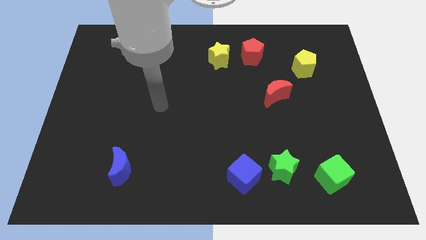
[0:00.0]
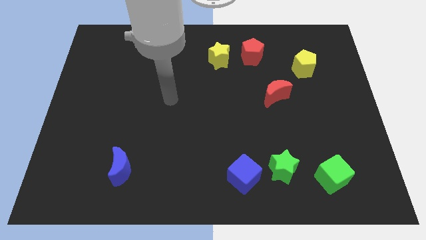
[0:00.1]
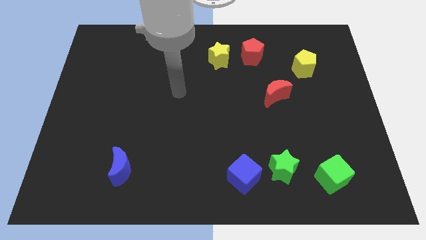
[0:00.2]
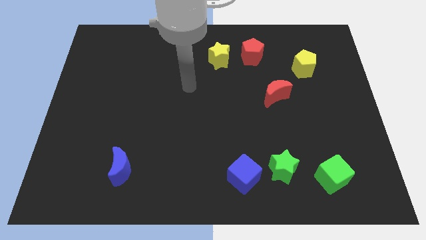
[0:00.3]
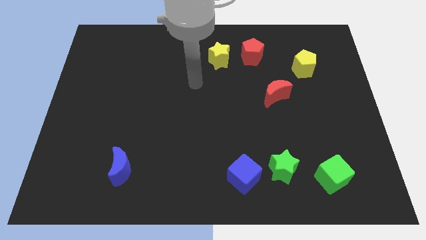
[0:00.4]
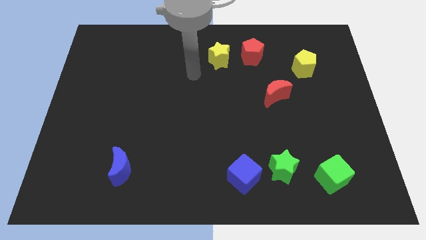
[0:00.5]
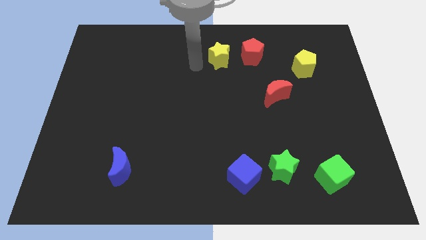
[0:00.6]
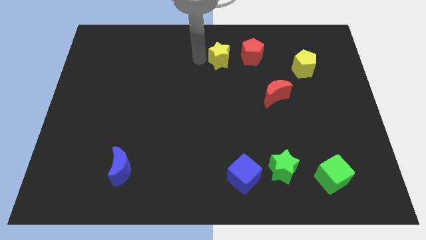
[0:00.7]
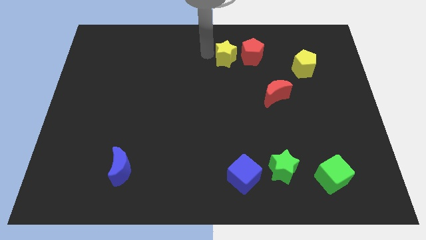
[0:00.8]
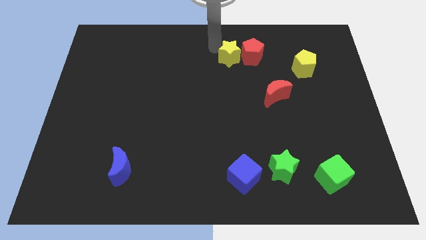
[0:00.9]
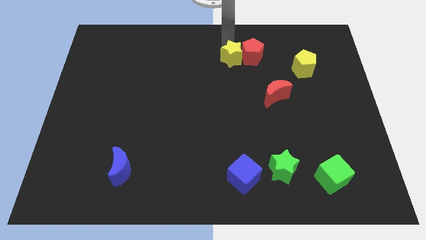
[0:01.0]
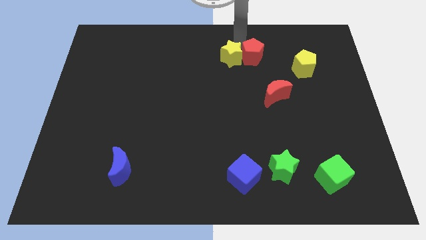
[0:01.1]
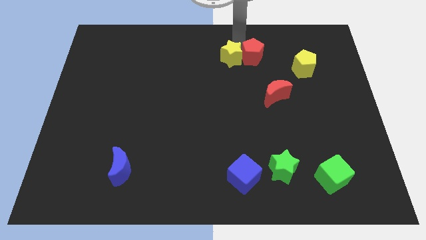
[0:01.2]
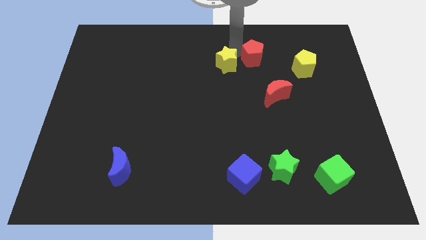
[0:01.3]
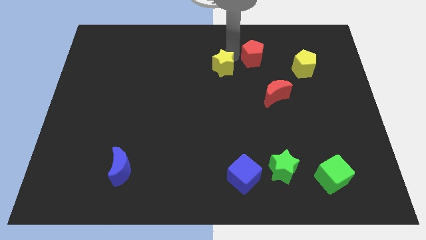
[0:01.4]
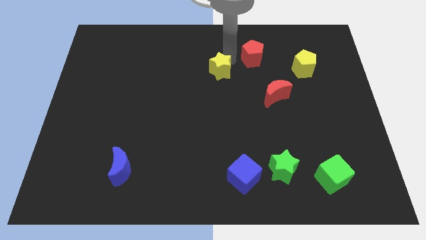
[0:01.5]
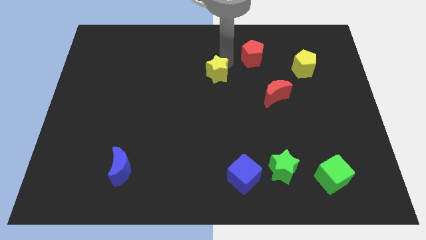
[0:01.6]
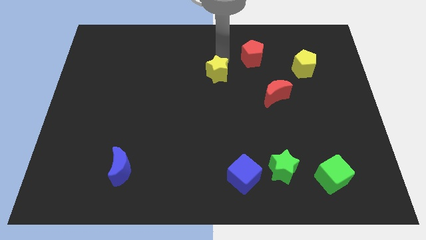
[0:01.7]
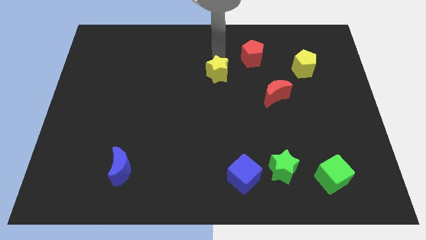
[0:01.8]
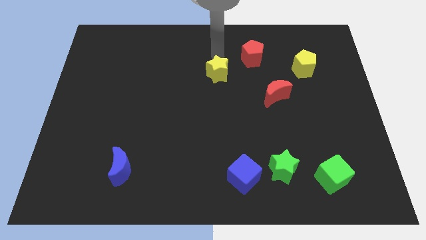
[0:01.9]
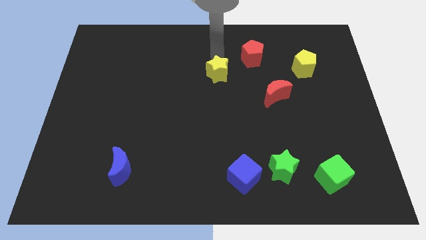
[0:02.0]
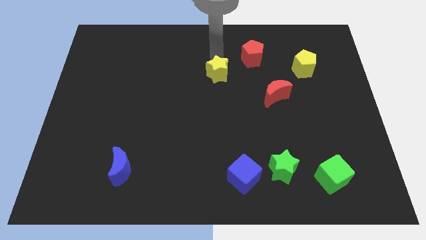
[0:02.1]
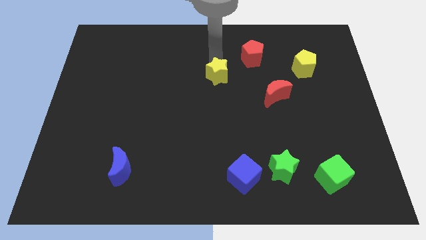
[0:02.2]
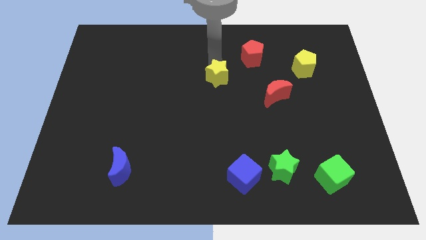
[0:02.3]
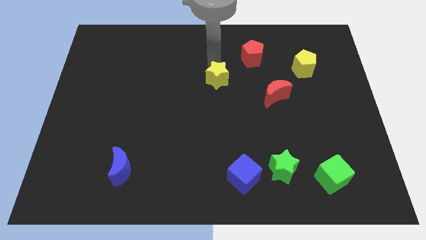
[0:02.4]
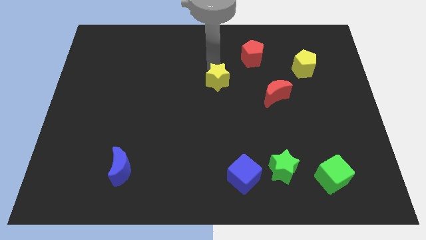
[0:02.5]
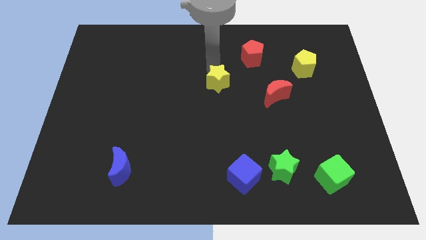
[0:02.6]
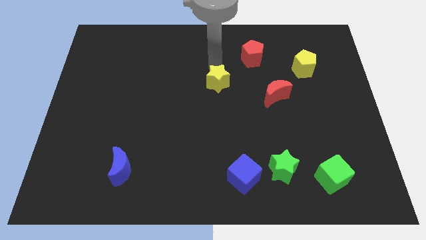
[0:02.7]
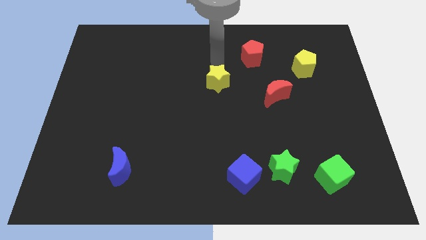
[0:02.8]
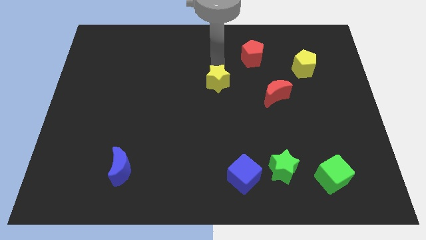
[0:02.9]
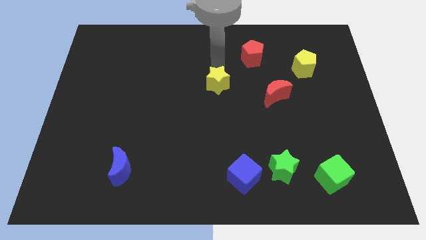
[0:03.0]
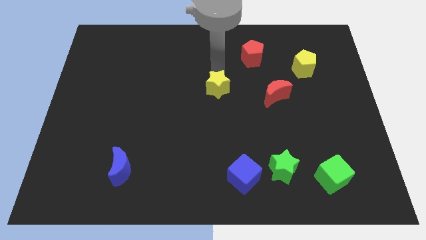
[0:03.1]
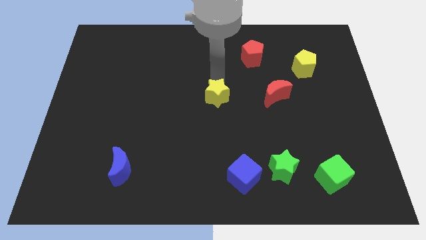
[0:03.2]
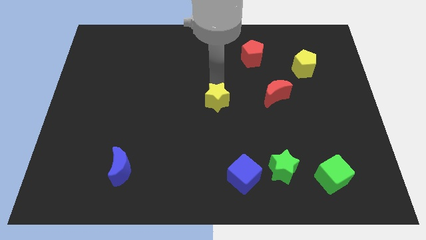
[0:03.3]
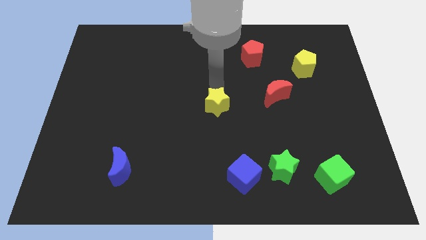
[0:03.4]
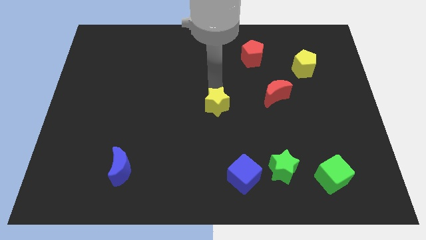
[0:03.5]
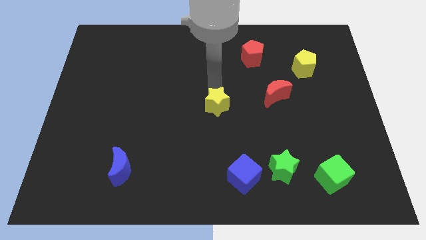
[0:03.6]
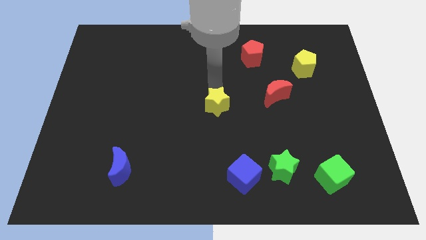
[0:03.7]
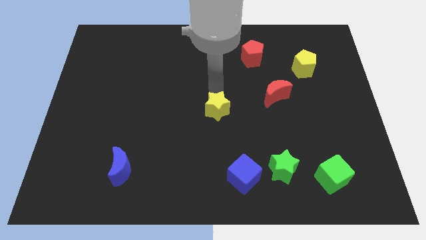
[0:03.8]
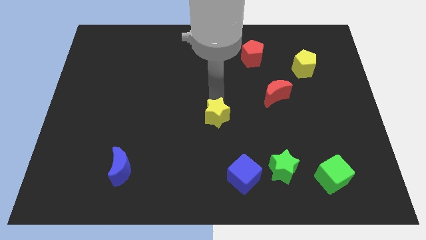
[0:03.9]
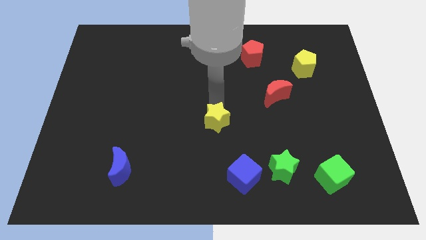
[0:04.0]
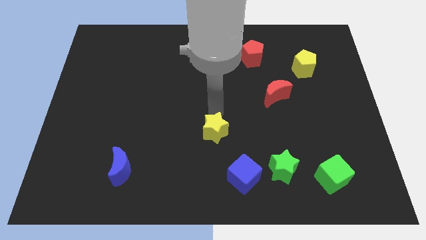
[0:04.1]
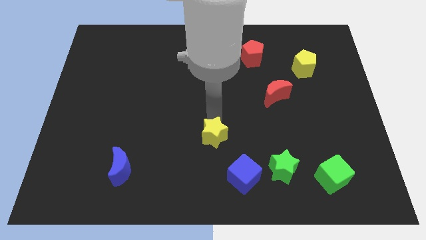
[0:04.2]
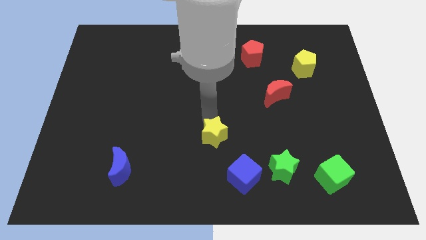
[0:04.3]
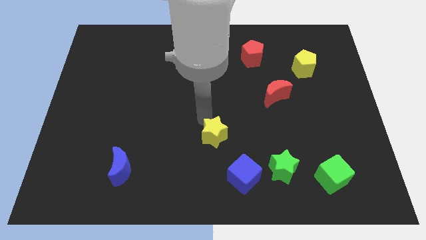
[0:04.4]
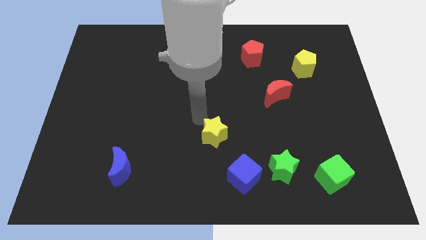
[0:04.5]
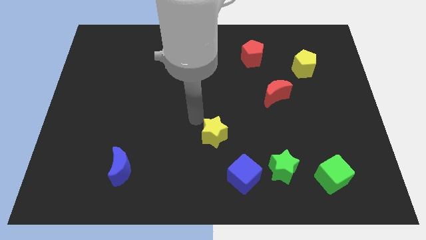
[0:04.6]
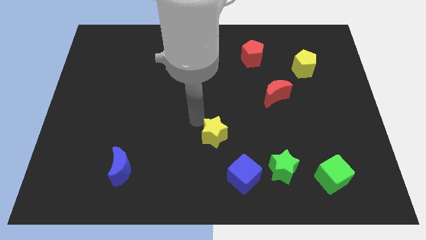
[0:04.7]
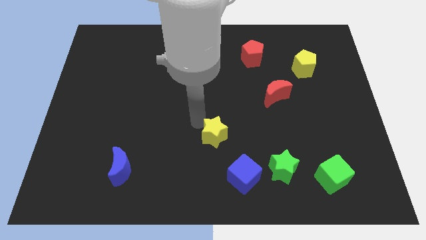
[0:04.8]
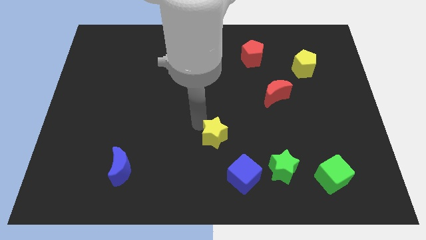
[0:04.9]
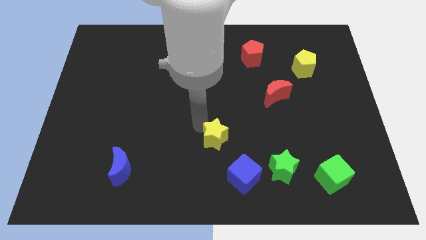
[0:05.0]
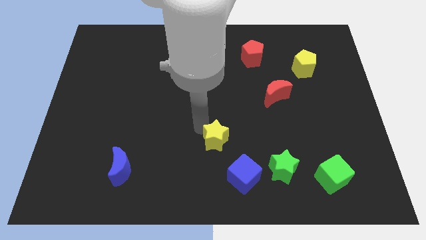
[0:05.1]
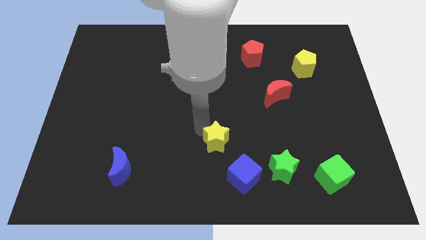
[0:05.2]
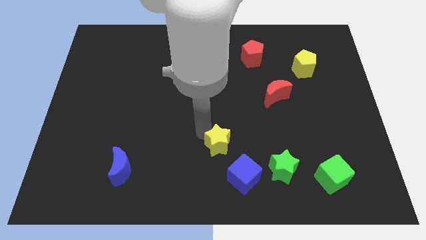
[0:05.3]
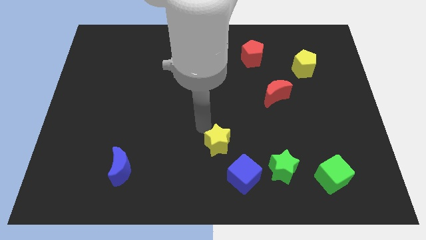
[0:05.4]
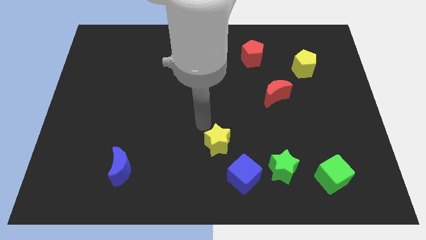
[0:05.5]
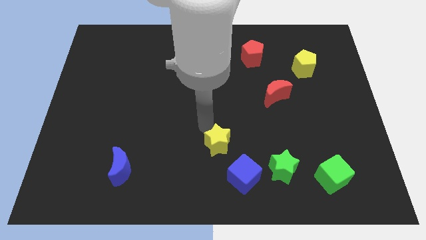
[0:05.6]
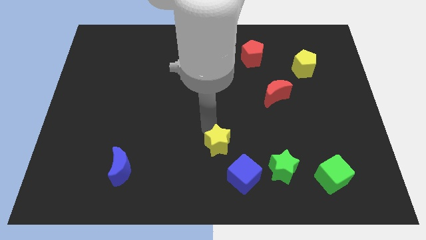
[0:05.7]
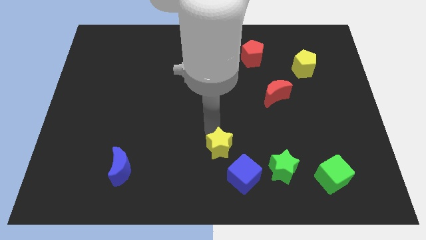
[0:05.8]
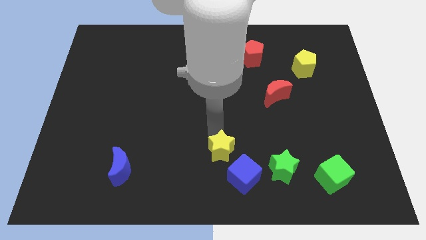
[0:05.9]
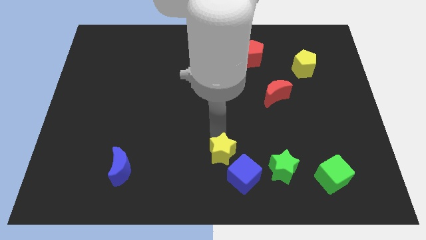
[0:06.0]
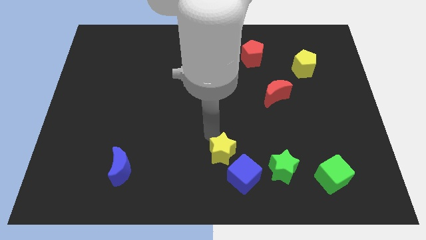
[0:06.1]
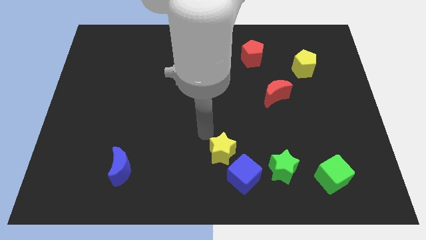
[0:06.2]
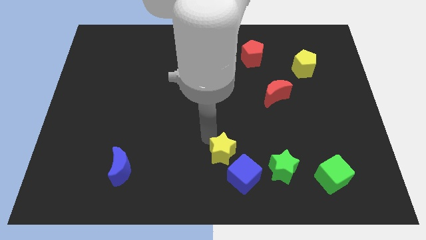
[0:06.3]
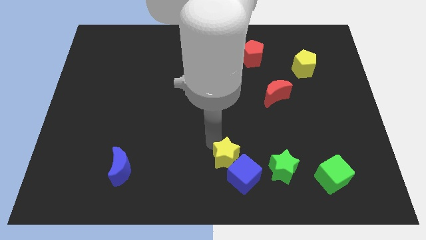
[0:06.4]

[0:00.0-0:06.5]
slide the yellow star next to the blue cube
